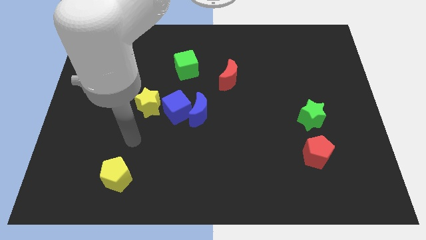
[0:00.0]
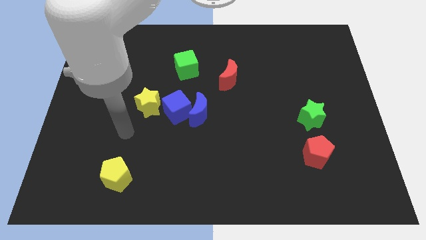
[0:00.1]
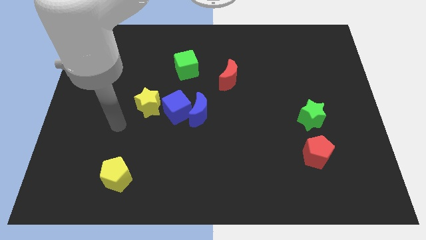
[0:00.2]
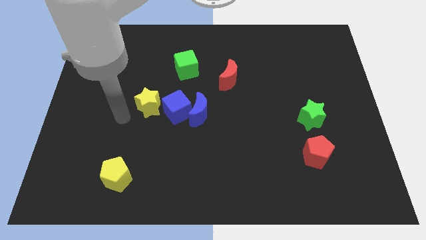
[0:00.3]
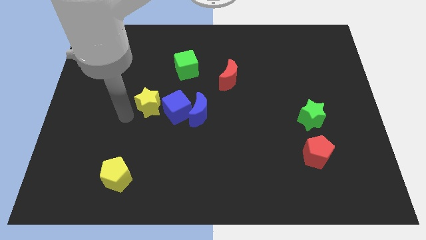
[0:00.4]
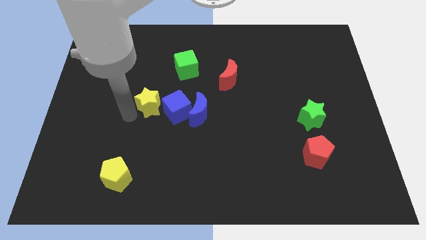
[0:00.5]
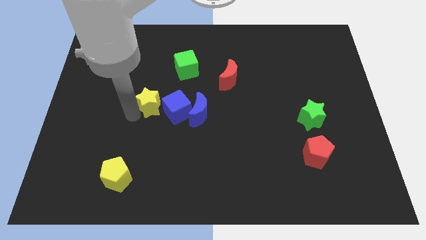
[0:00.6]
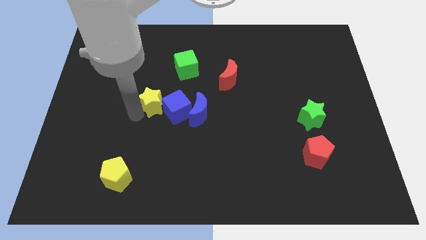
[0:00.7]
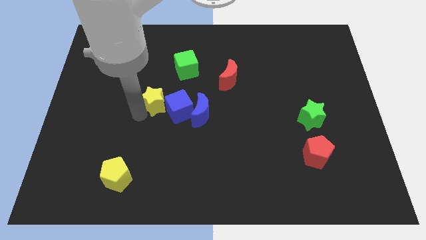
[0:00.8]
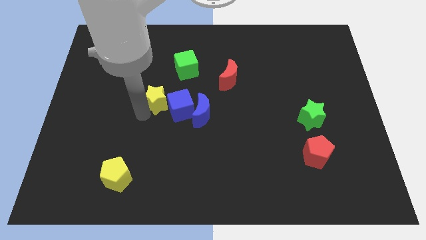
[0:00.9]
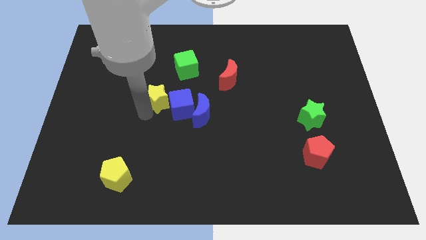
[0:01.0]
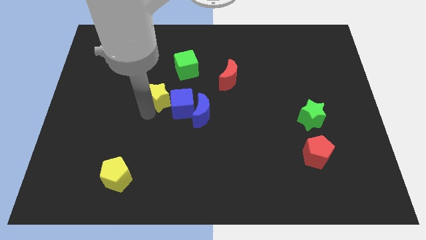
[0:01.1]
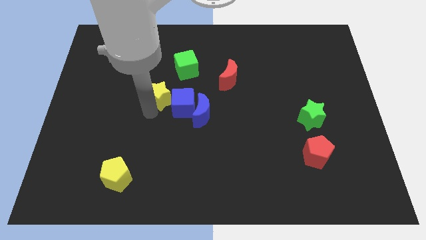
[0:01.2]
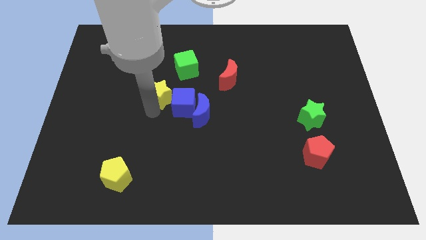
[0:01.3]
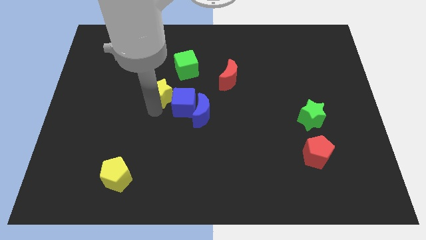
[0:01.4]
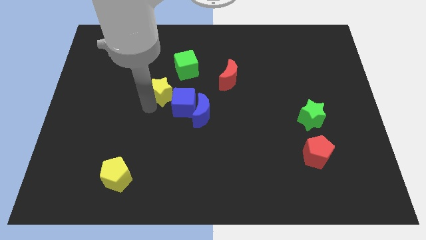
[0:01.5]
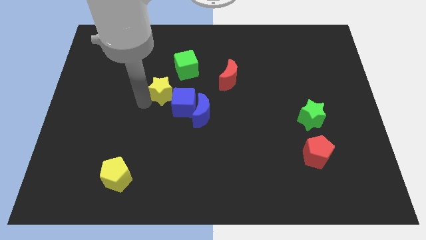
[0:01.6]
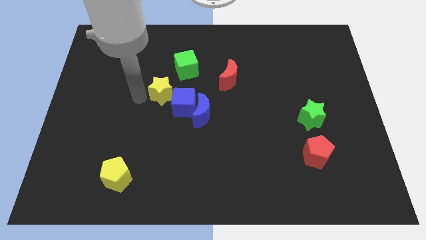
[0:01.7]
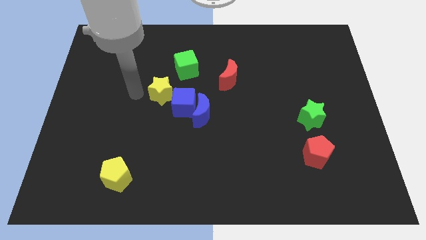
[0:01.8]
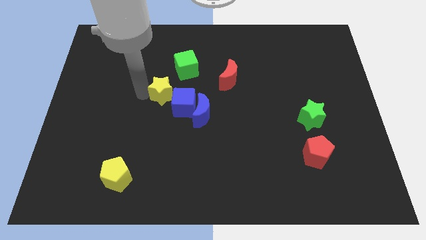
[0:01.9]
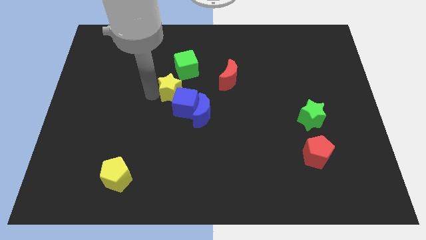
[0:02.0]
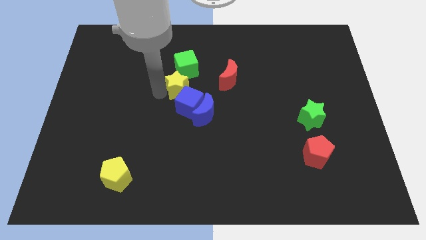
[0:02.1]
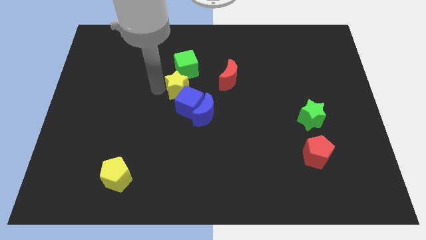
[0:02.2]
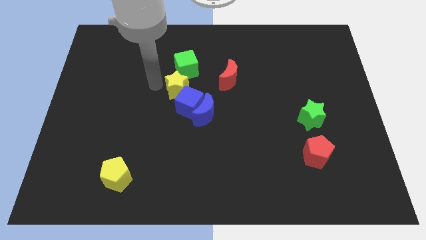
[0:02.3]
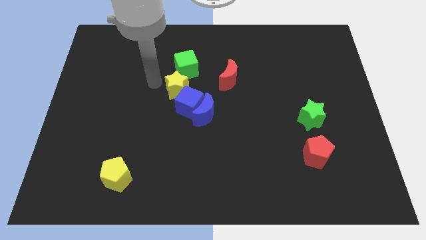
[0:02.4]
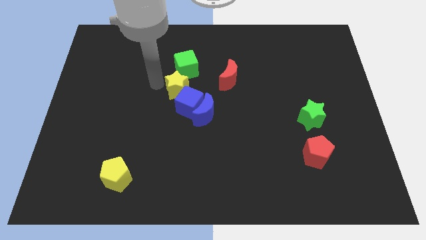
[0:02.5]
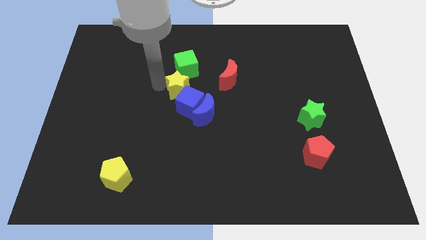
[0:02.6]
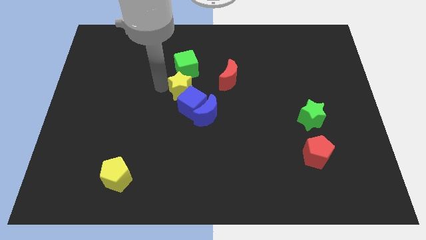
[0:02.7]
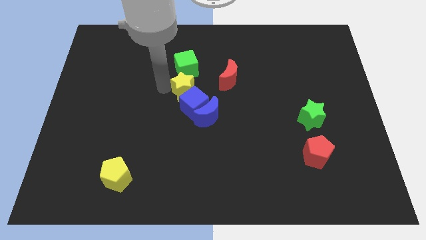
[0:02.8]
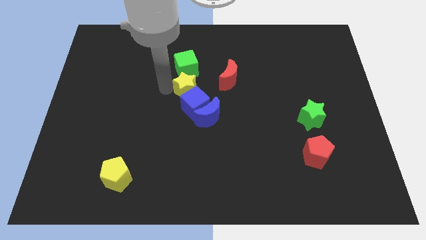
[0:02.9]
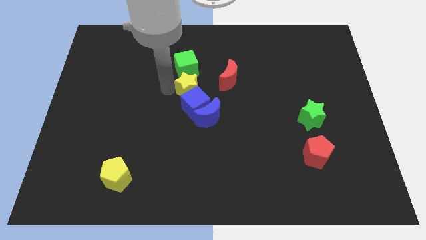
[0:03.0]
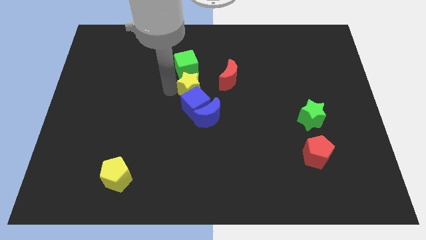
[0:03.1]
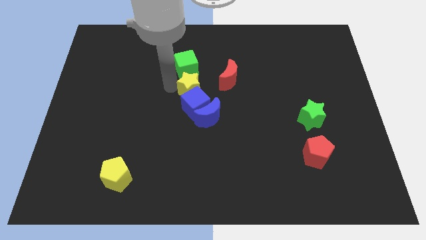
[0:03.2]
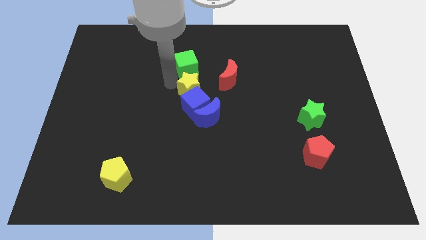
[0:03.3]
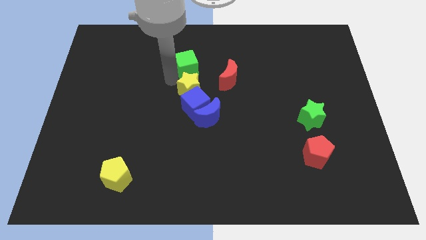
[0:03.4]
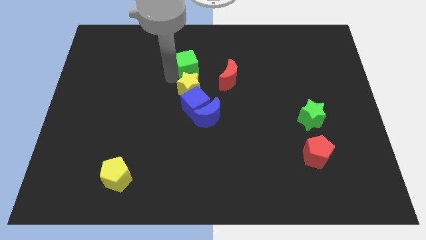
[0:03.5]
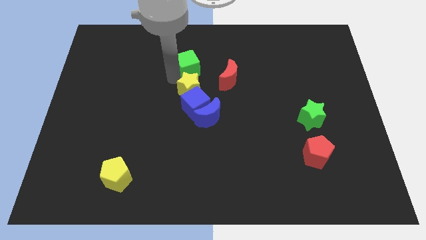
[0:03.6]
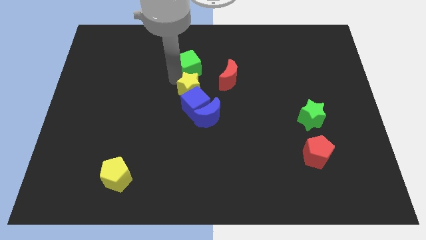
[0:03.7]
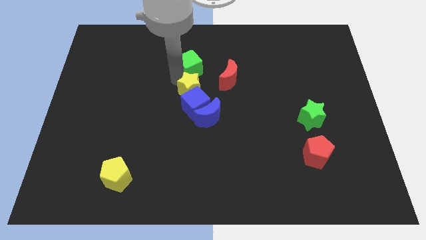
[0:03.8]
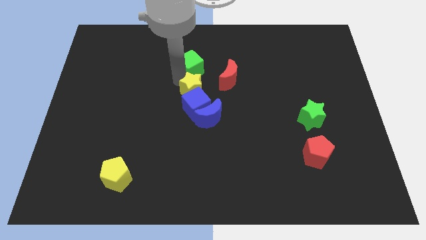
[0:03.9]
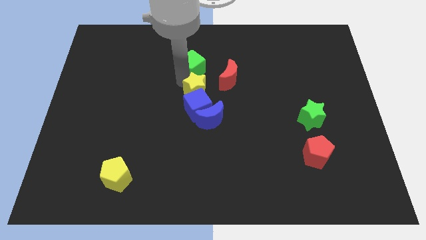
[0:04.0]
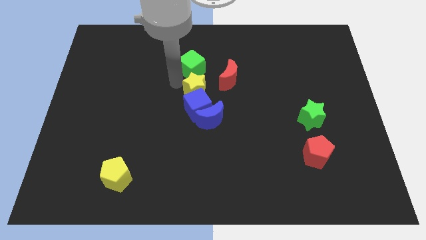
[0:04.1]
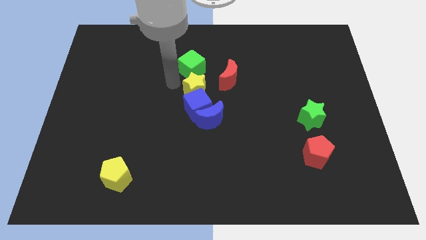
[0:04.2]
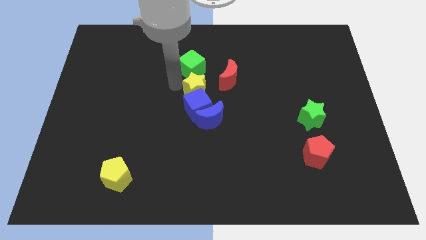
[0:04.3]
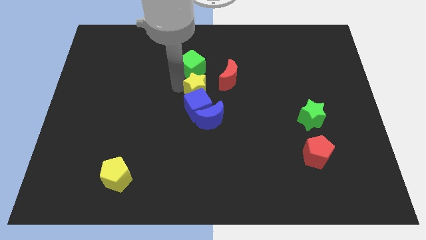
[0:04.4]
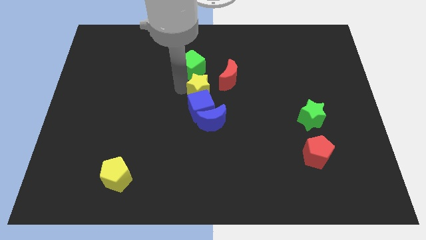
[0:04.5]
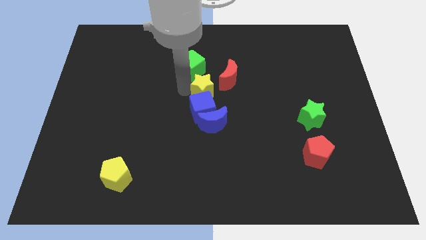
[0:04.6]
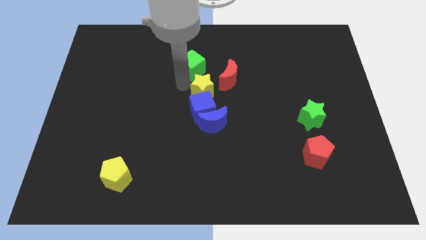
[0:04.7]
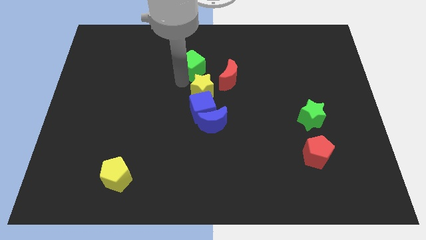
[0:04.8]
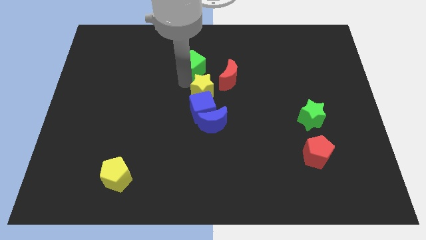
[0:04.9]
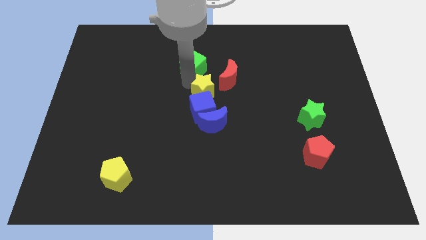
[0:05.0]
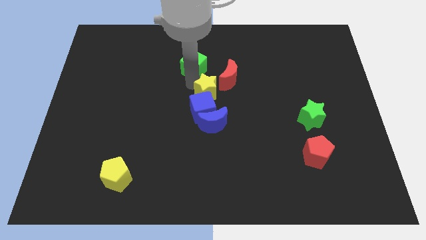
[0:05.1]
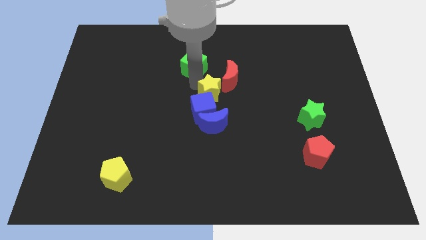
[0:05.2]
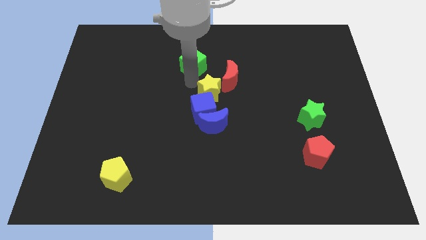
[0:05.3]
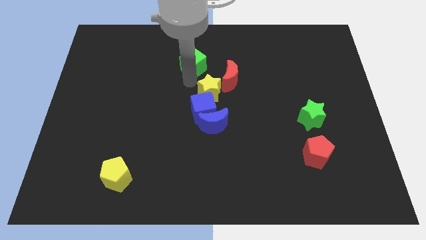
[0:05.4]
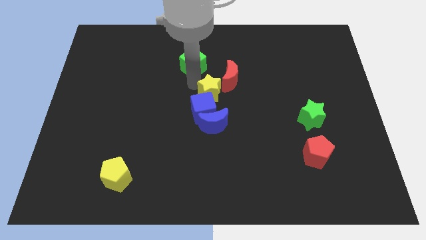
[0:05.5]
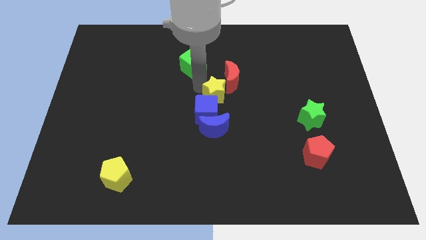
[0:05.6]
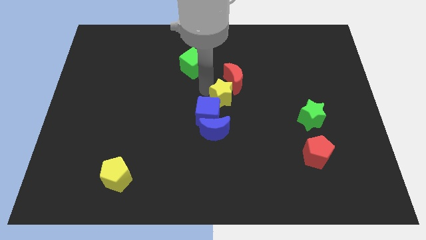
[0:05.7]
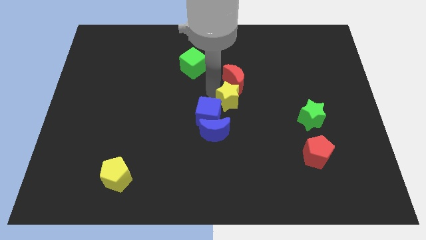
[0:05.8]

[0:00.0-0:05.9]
move the yellow star diagonally up and to the right of the blue moon
